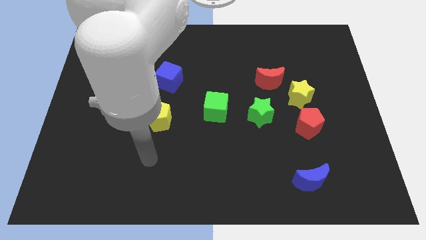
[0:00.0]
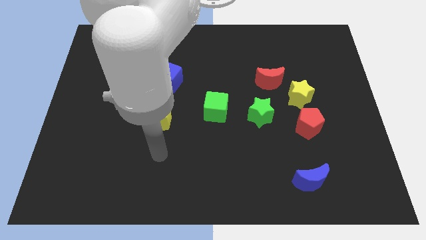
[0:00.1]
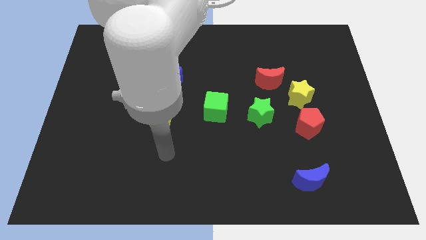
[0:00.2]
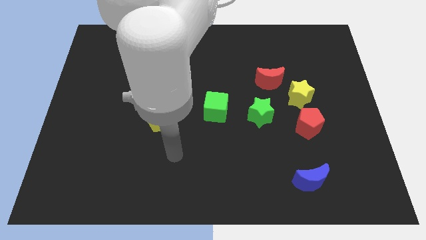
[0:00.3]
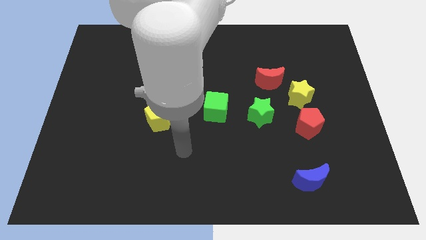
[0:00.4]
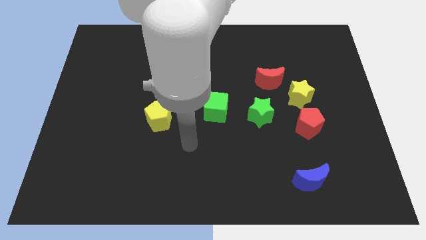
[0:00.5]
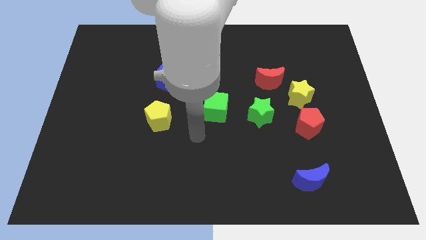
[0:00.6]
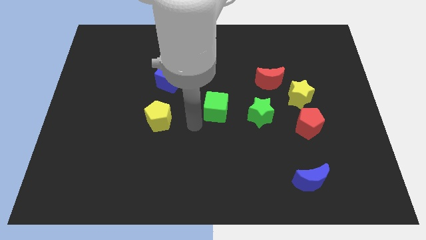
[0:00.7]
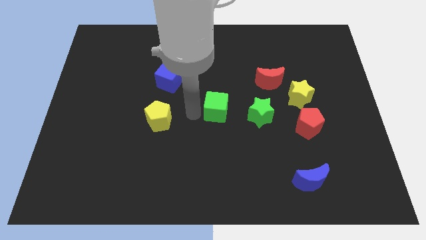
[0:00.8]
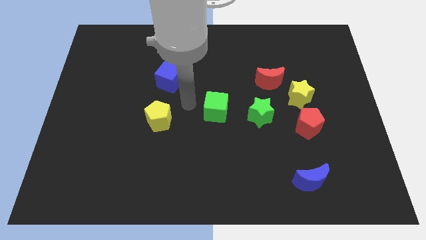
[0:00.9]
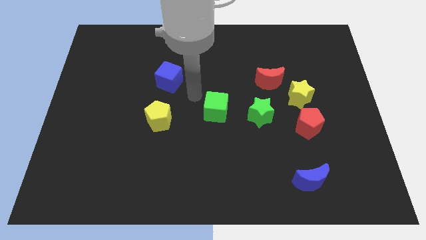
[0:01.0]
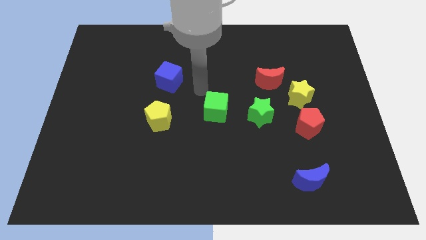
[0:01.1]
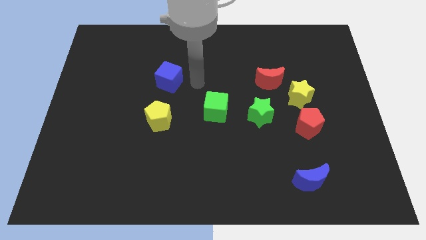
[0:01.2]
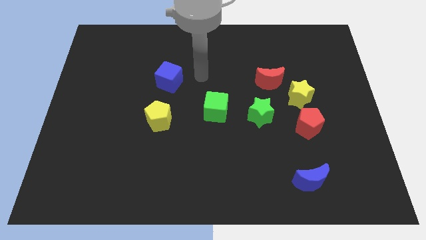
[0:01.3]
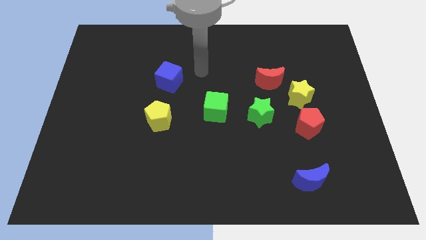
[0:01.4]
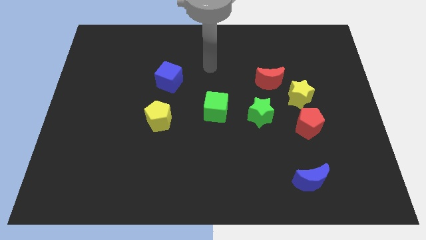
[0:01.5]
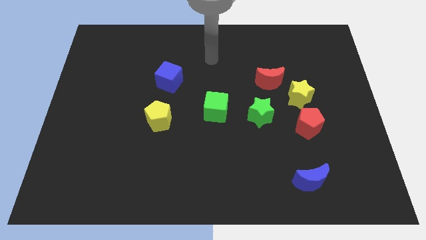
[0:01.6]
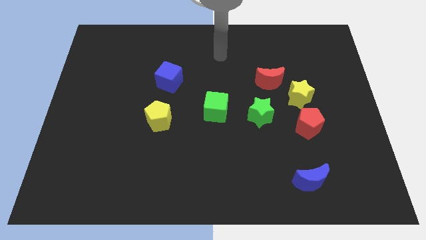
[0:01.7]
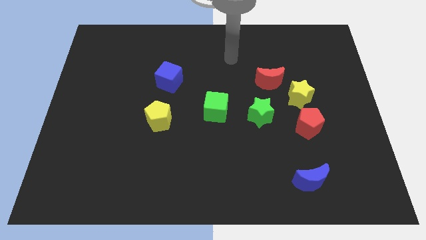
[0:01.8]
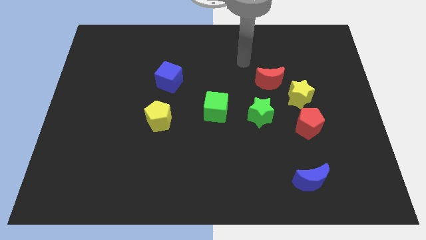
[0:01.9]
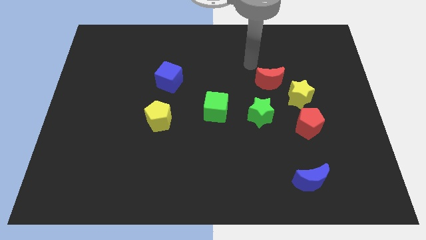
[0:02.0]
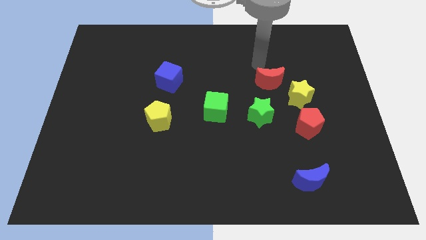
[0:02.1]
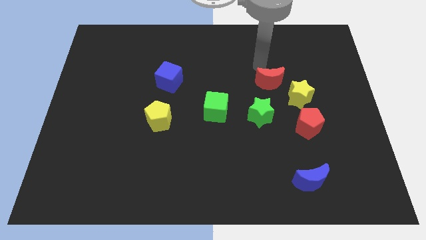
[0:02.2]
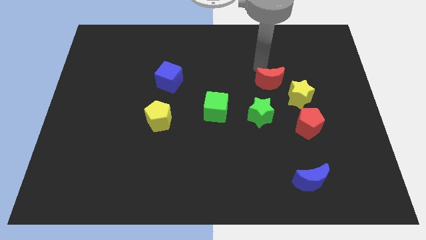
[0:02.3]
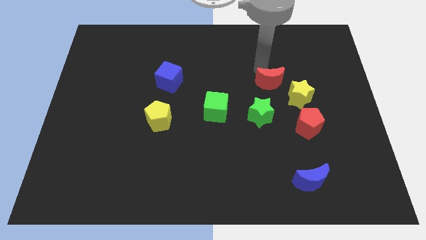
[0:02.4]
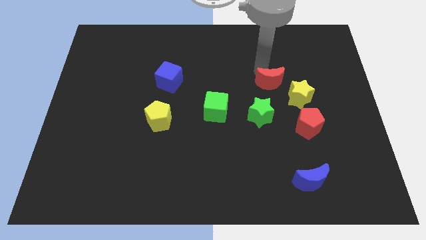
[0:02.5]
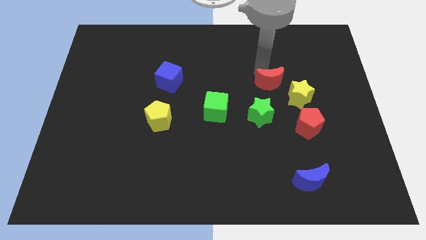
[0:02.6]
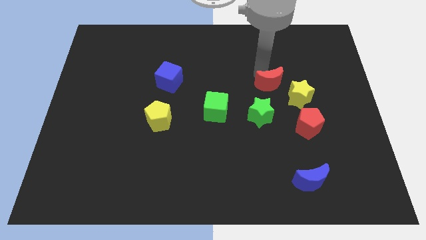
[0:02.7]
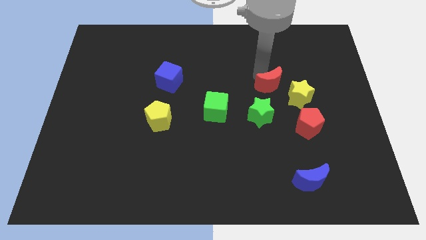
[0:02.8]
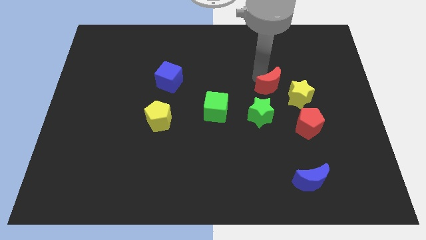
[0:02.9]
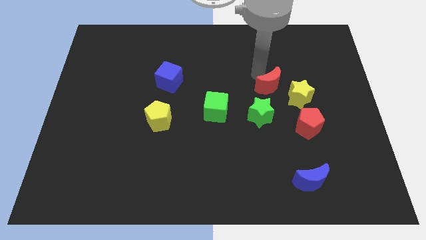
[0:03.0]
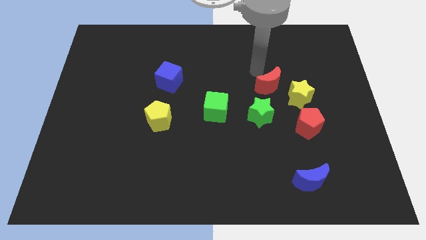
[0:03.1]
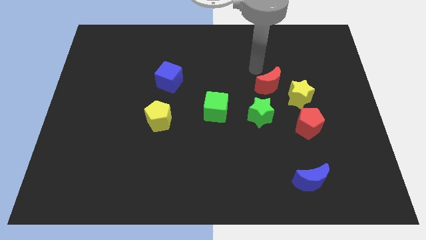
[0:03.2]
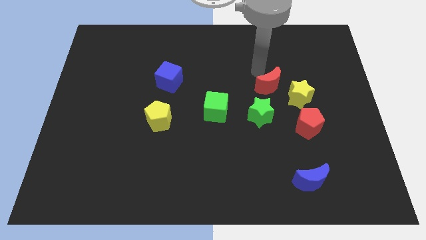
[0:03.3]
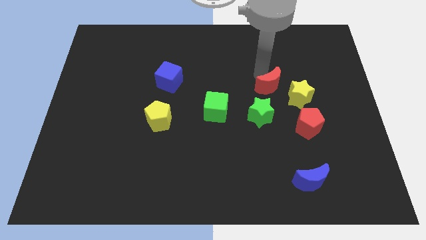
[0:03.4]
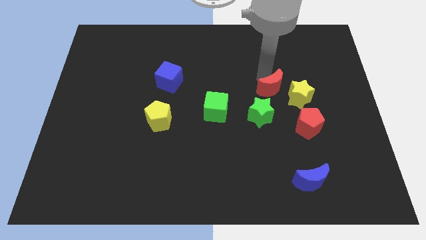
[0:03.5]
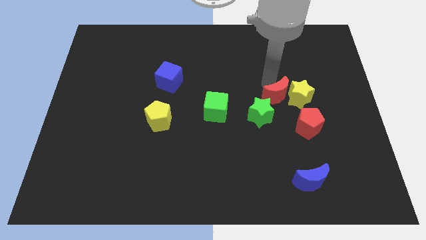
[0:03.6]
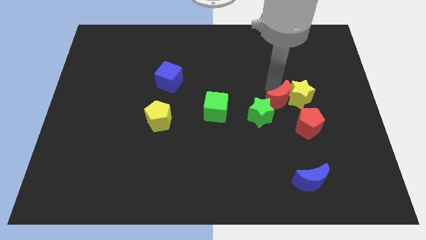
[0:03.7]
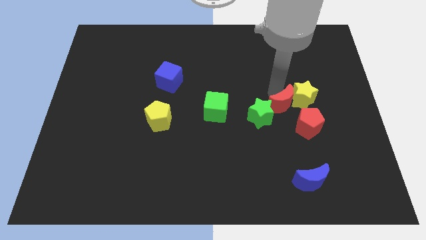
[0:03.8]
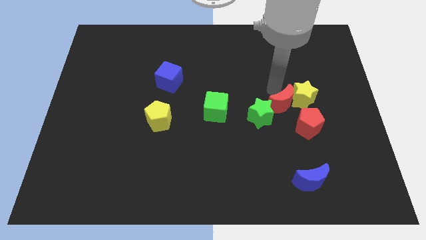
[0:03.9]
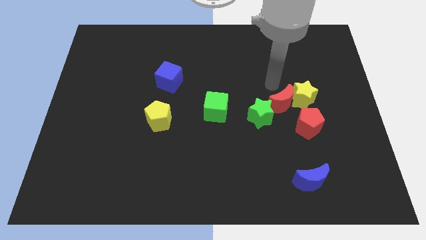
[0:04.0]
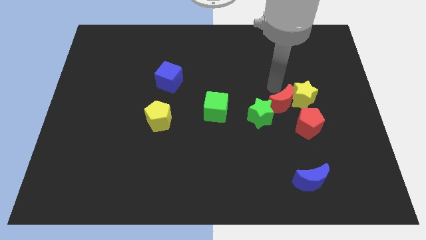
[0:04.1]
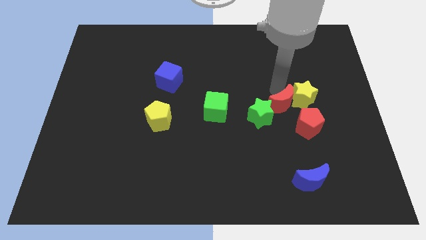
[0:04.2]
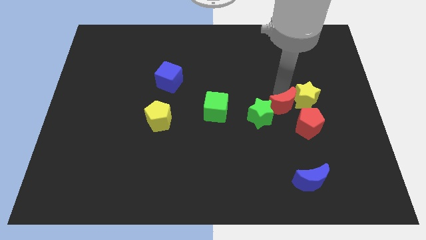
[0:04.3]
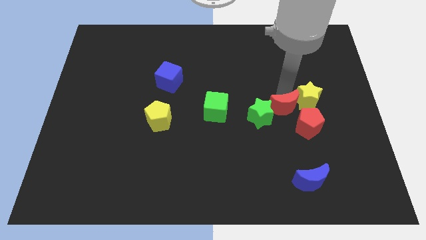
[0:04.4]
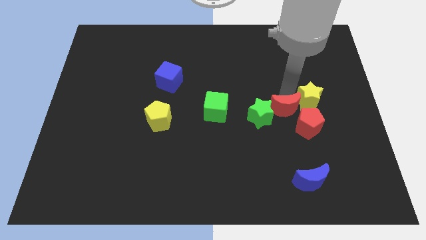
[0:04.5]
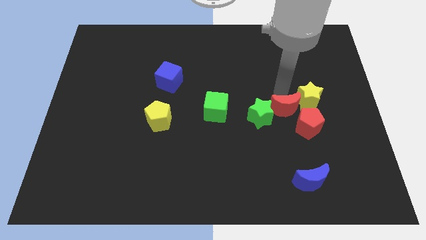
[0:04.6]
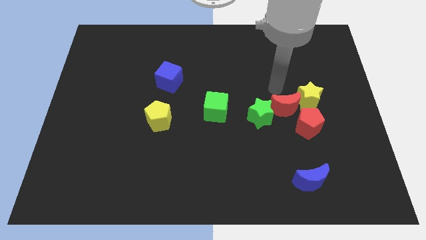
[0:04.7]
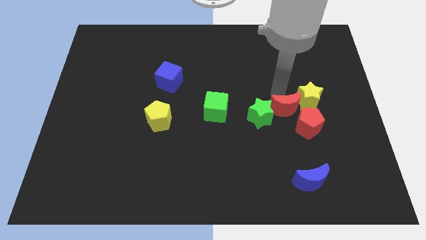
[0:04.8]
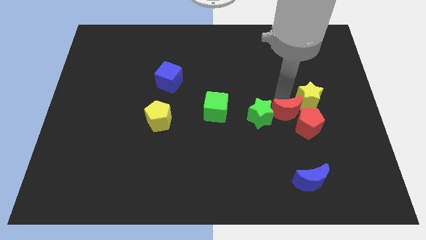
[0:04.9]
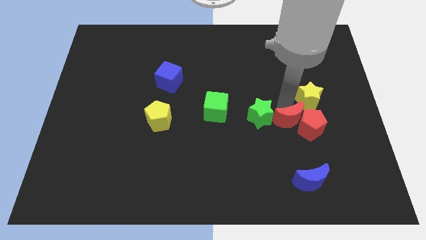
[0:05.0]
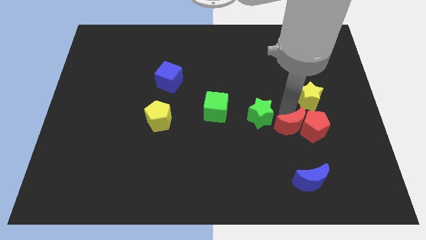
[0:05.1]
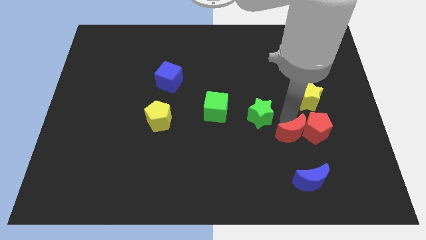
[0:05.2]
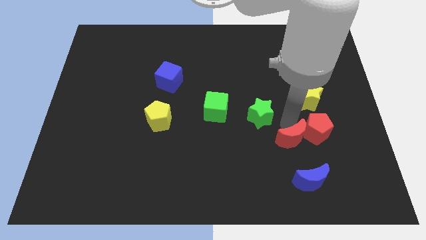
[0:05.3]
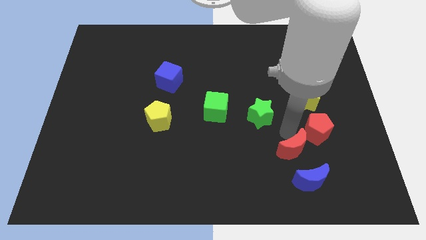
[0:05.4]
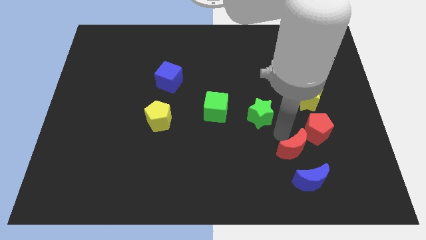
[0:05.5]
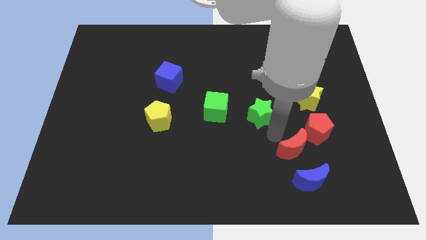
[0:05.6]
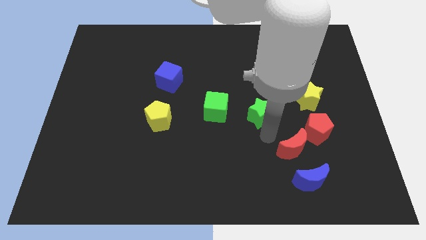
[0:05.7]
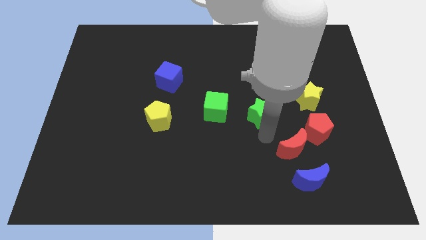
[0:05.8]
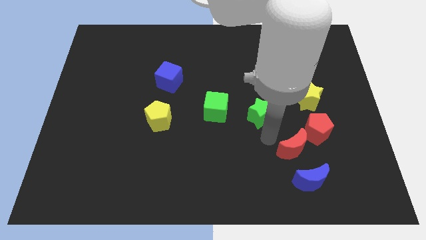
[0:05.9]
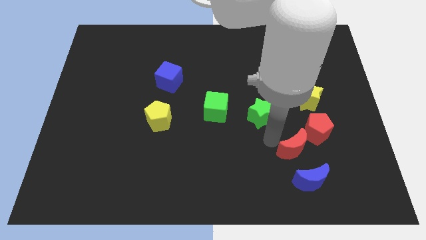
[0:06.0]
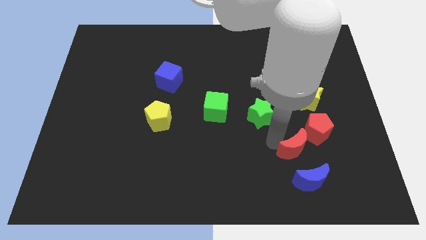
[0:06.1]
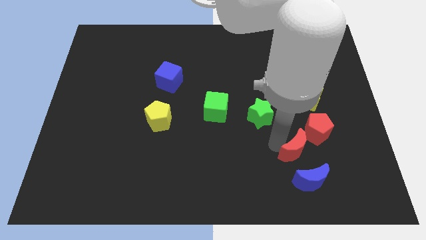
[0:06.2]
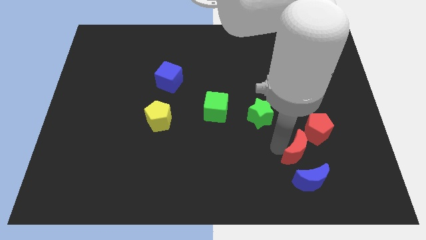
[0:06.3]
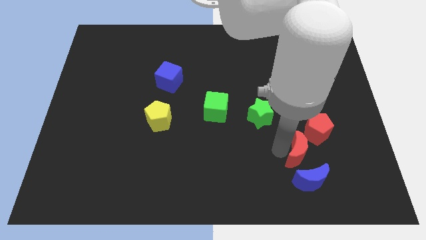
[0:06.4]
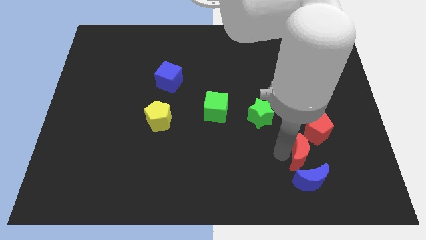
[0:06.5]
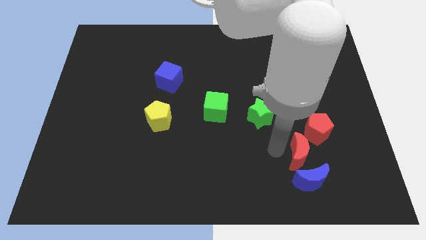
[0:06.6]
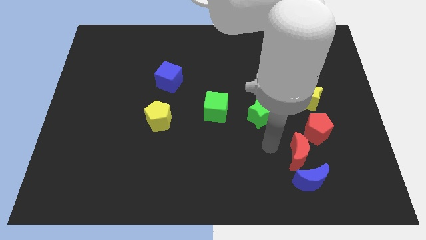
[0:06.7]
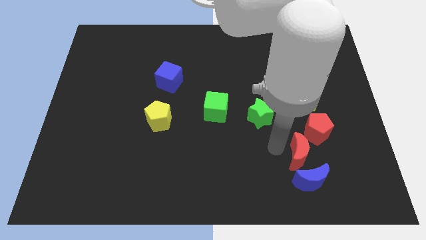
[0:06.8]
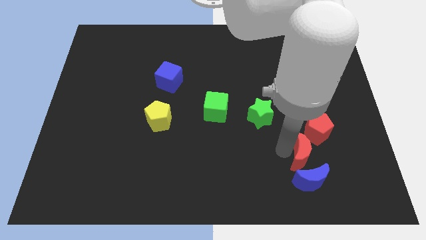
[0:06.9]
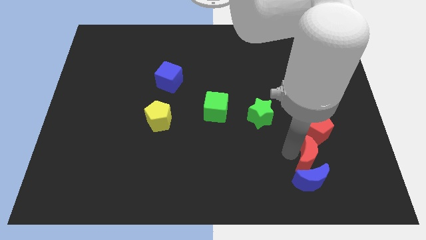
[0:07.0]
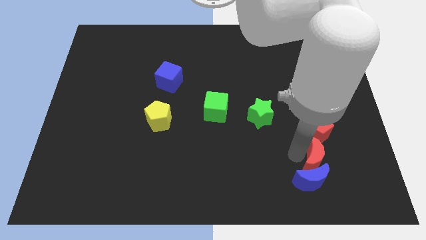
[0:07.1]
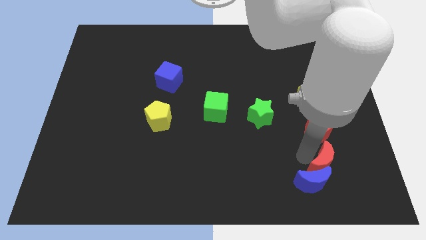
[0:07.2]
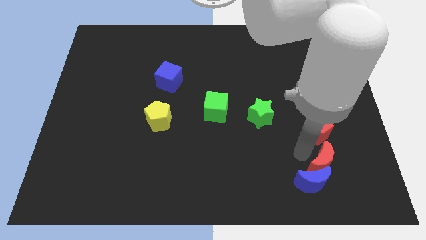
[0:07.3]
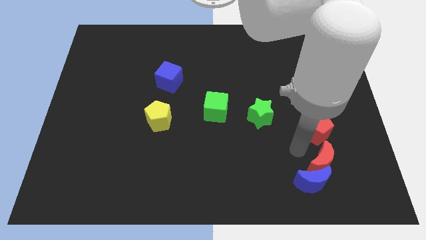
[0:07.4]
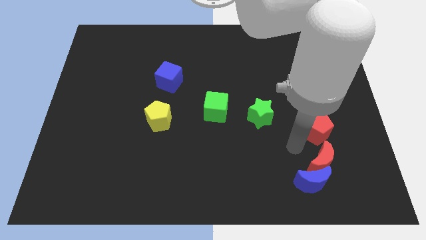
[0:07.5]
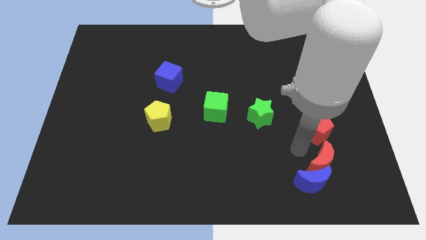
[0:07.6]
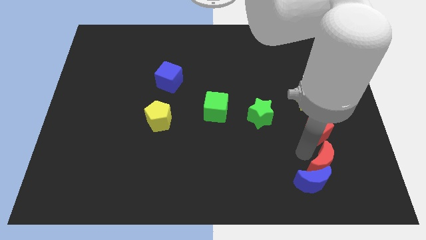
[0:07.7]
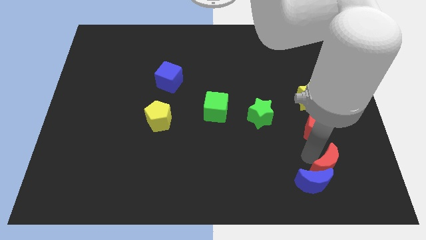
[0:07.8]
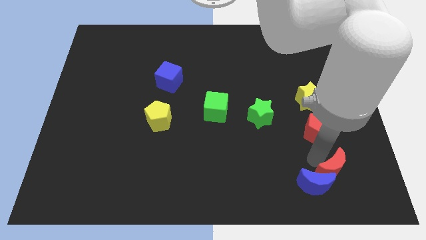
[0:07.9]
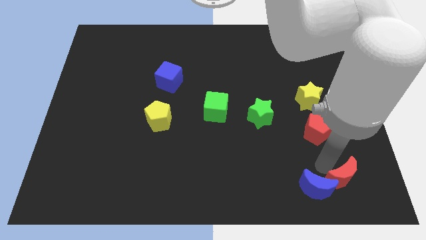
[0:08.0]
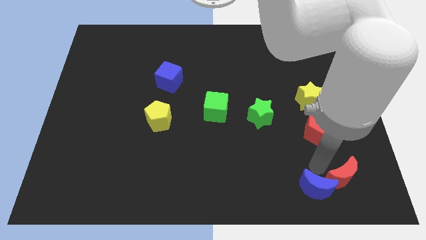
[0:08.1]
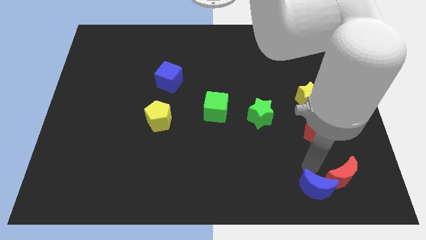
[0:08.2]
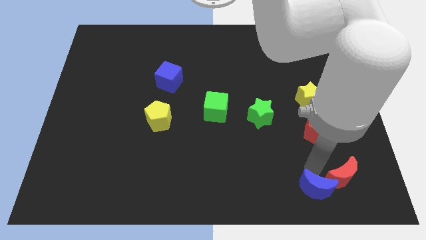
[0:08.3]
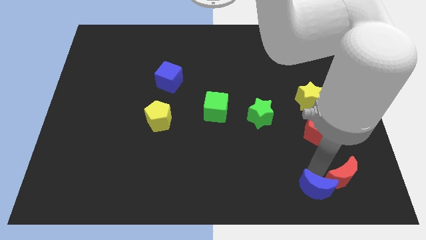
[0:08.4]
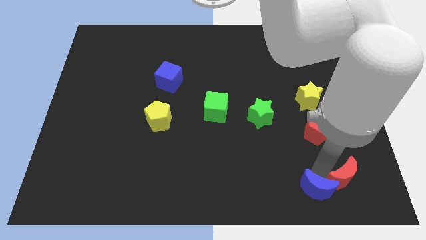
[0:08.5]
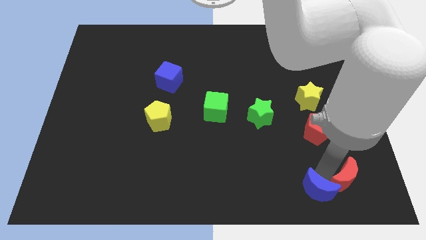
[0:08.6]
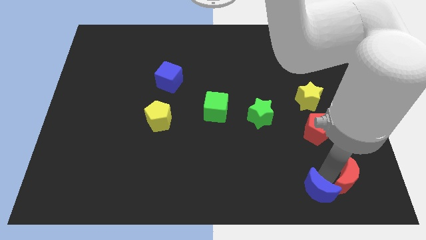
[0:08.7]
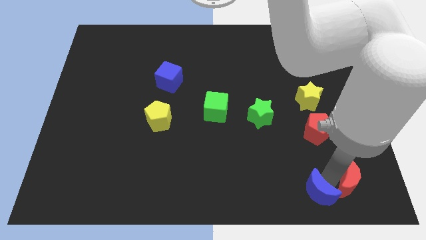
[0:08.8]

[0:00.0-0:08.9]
slide the red moon to the lower right corner
